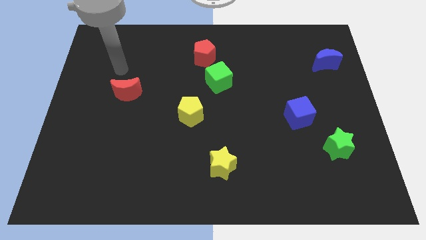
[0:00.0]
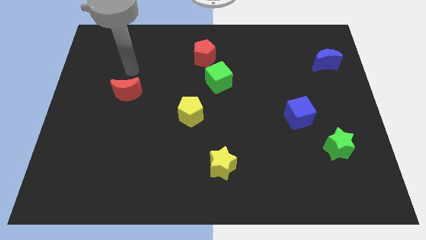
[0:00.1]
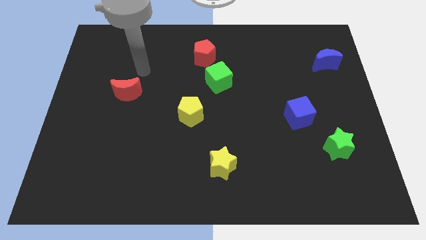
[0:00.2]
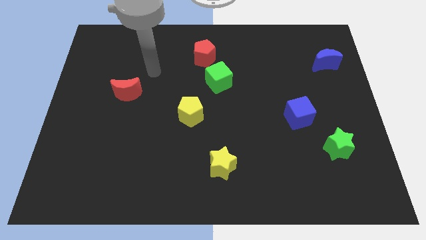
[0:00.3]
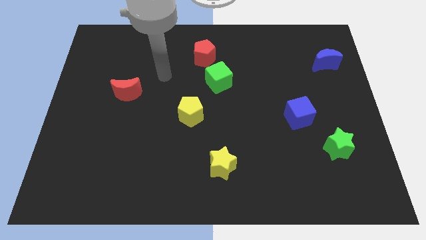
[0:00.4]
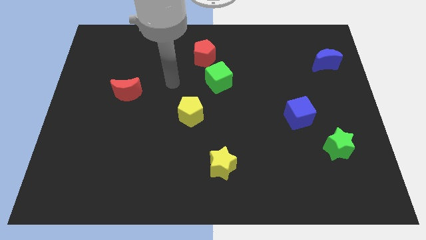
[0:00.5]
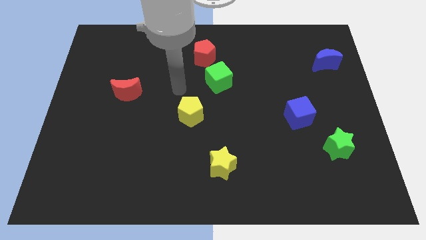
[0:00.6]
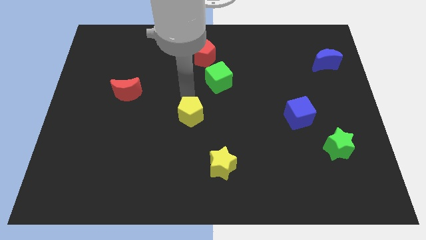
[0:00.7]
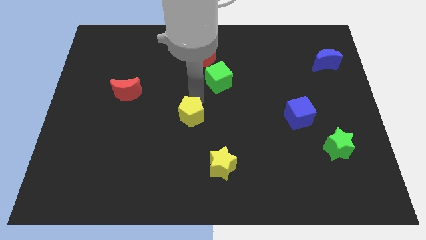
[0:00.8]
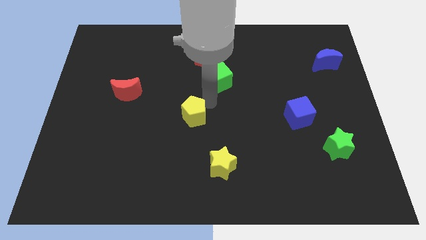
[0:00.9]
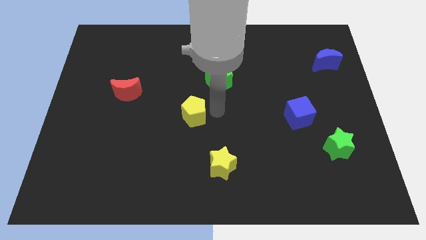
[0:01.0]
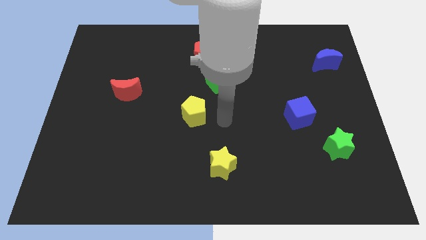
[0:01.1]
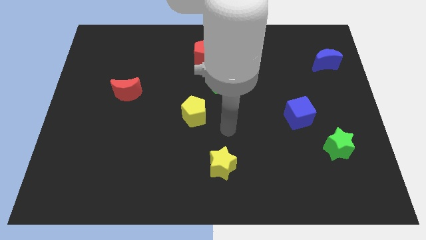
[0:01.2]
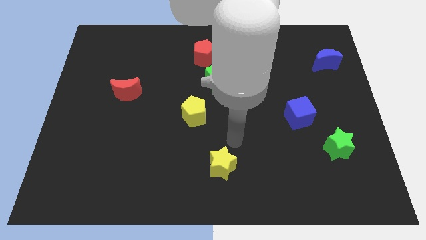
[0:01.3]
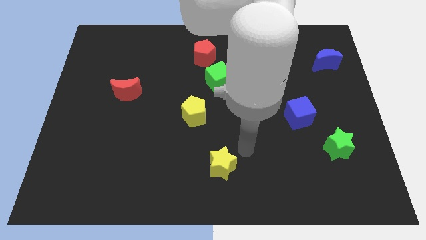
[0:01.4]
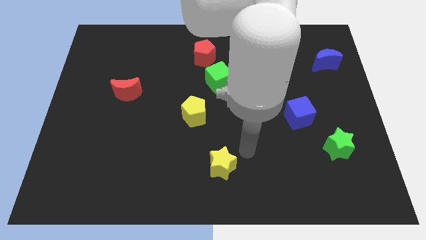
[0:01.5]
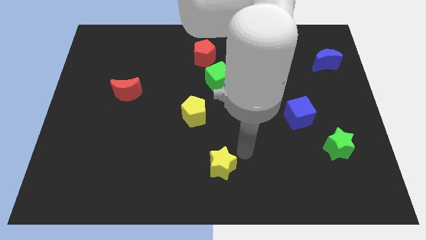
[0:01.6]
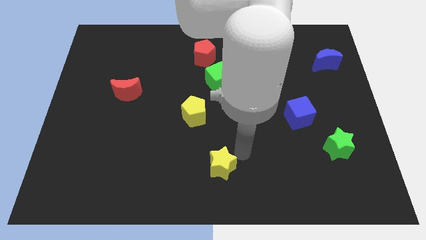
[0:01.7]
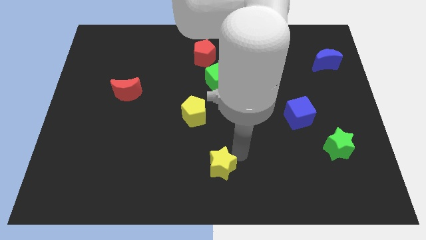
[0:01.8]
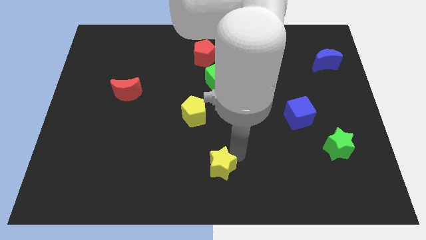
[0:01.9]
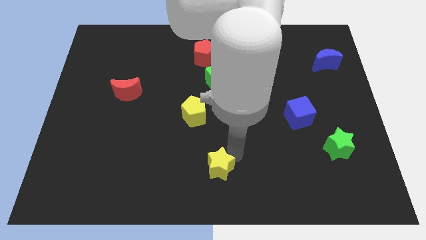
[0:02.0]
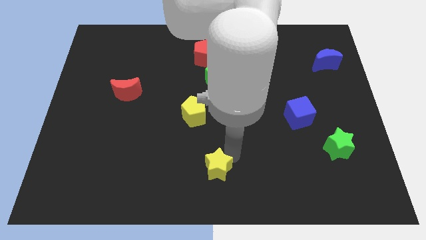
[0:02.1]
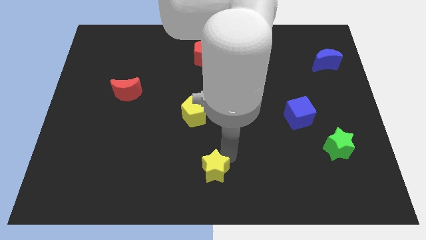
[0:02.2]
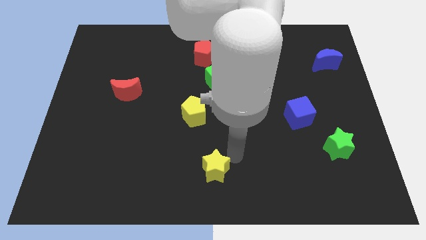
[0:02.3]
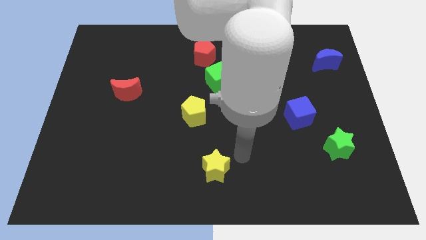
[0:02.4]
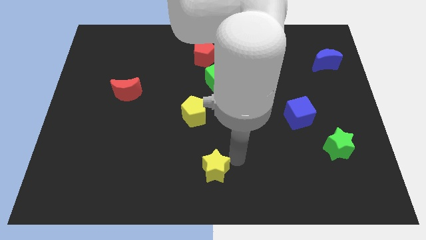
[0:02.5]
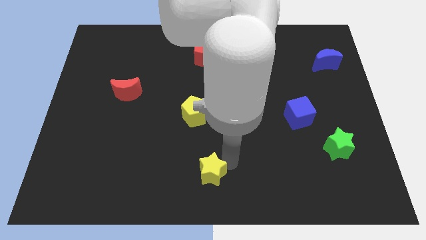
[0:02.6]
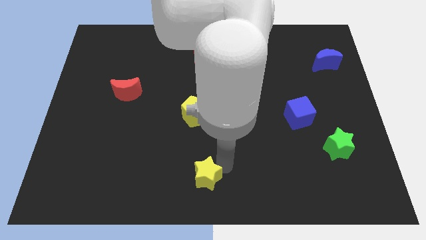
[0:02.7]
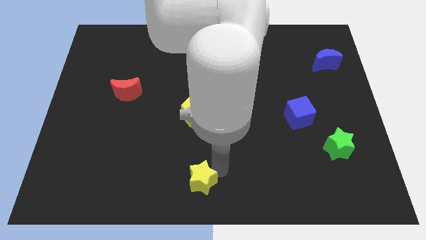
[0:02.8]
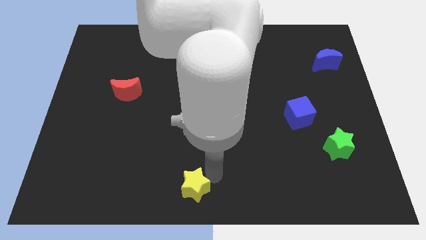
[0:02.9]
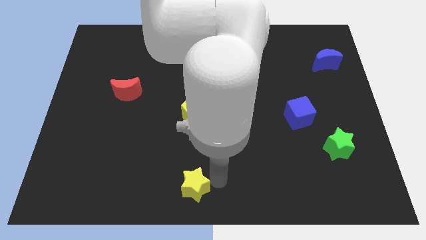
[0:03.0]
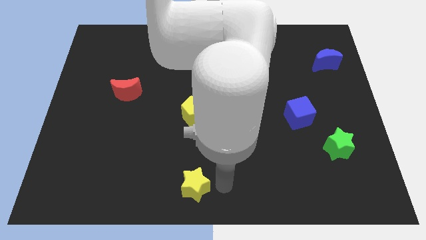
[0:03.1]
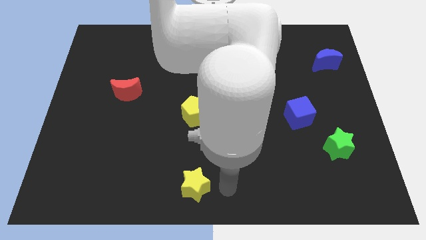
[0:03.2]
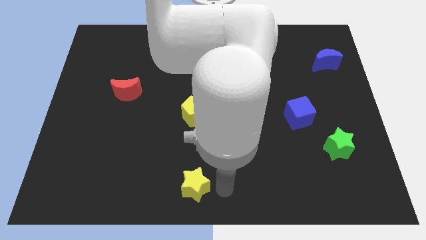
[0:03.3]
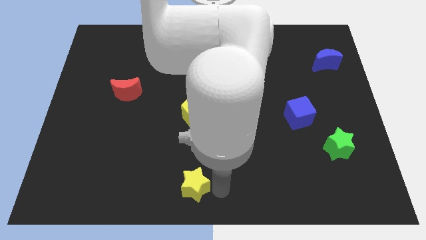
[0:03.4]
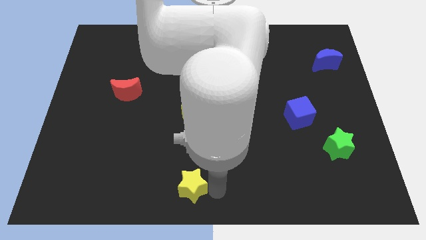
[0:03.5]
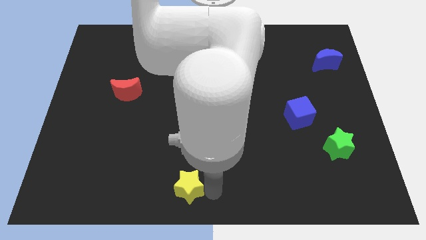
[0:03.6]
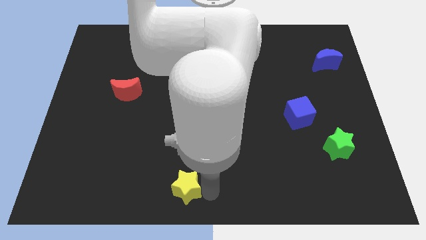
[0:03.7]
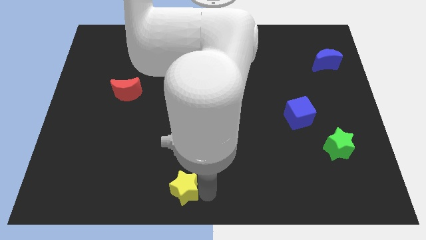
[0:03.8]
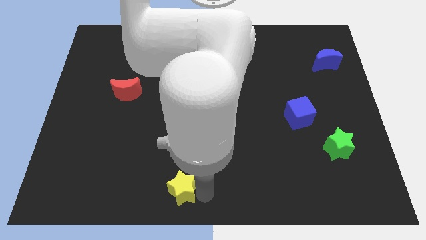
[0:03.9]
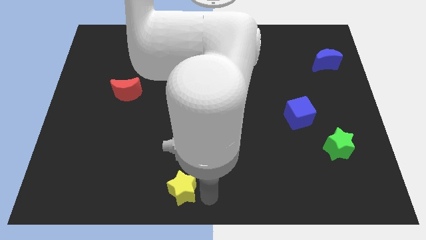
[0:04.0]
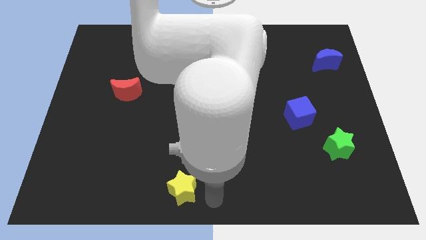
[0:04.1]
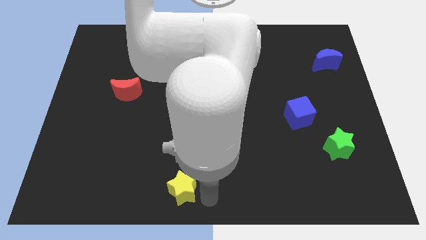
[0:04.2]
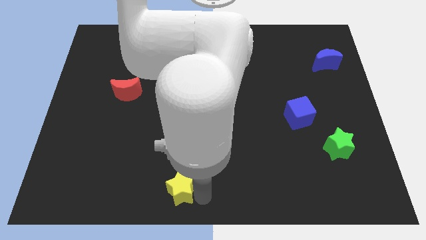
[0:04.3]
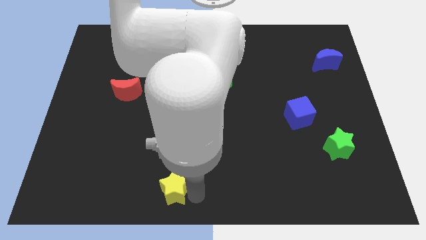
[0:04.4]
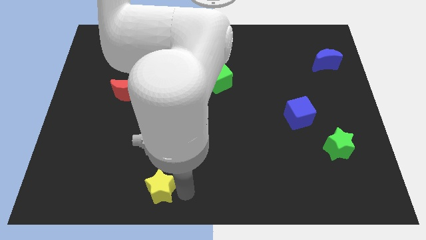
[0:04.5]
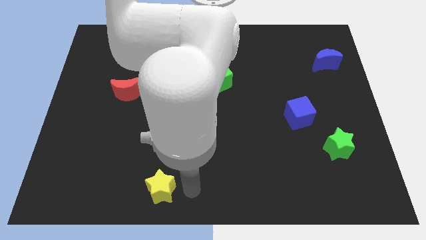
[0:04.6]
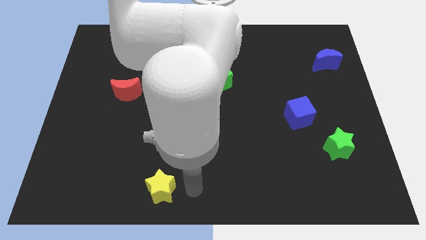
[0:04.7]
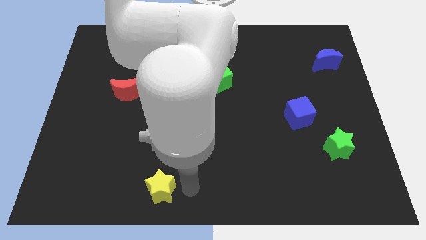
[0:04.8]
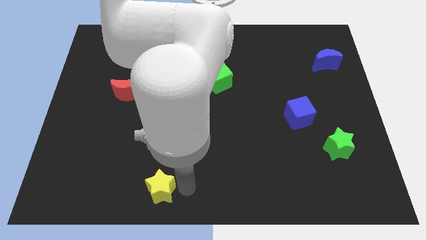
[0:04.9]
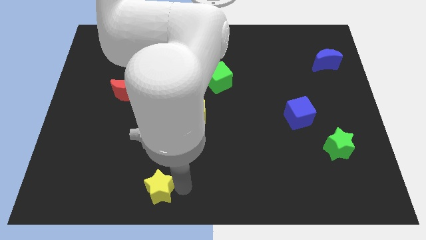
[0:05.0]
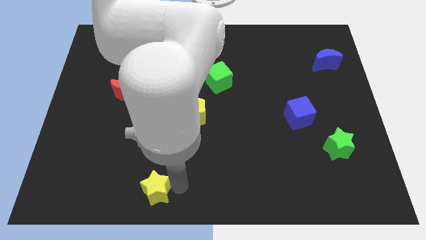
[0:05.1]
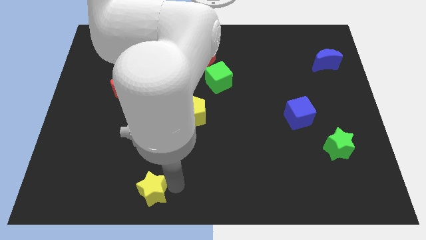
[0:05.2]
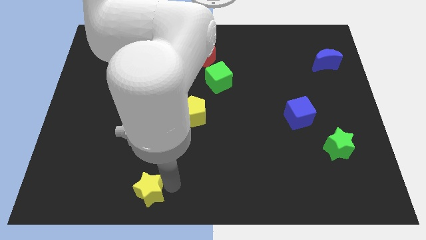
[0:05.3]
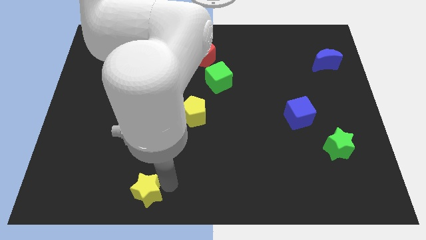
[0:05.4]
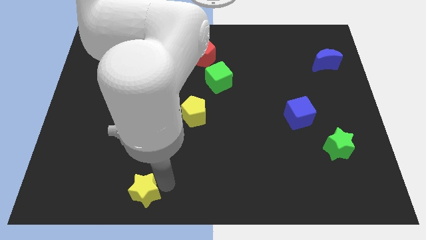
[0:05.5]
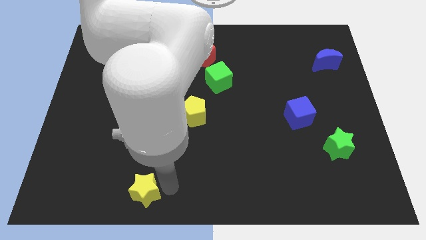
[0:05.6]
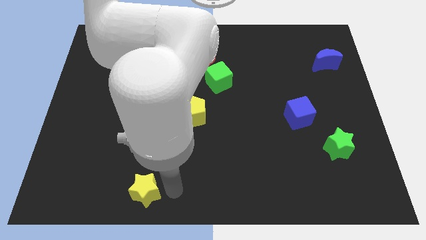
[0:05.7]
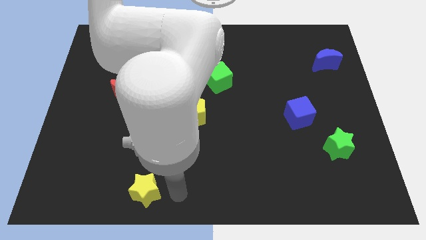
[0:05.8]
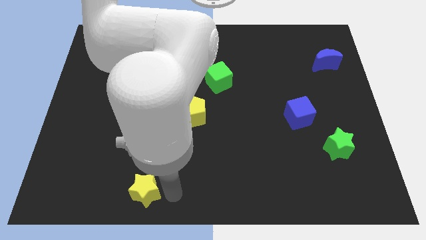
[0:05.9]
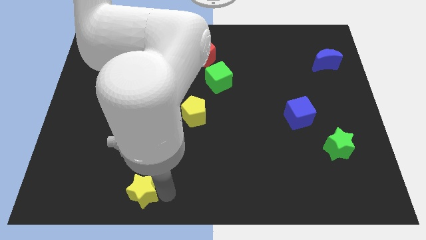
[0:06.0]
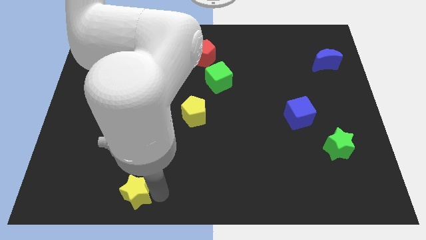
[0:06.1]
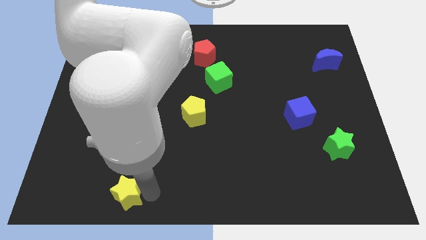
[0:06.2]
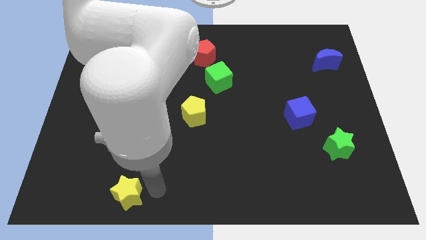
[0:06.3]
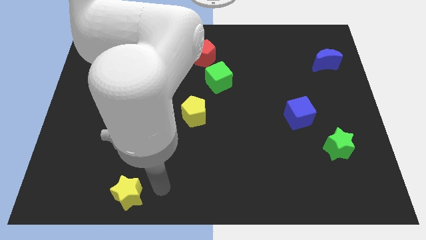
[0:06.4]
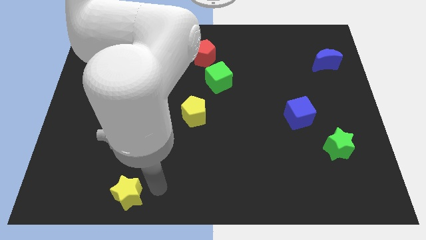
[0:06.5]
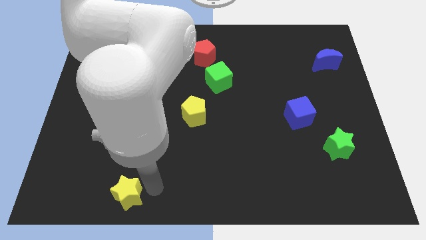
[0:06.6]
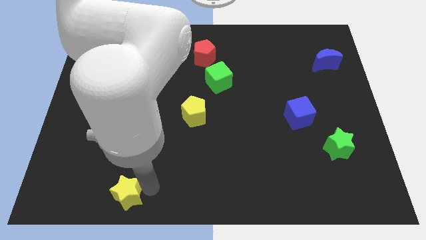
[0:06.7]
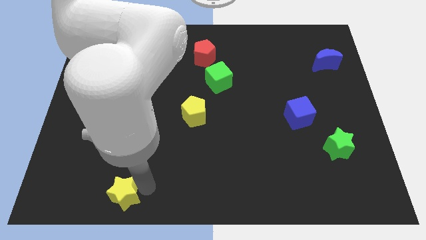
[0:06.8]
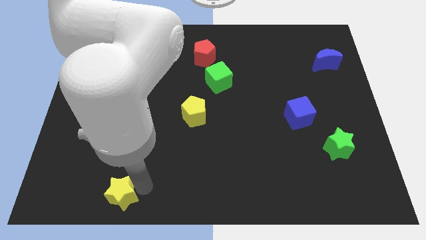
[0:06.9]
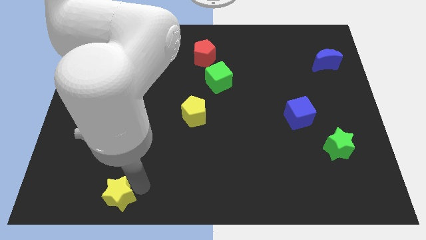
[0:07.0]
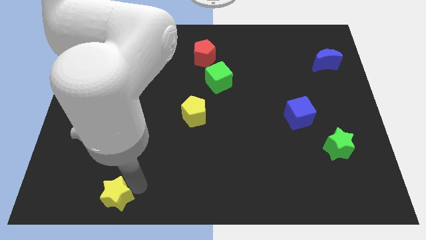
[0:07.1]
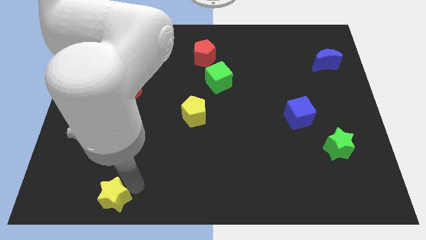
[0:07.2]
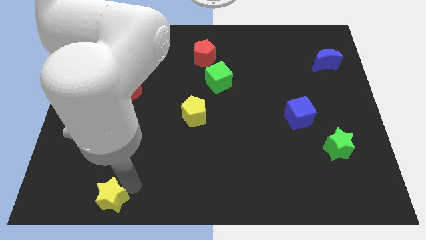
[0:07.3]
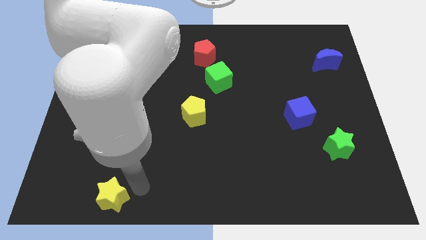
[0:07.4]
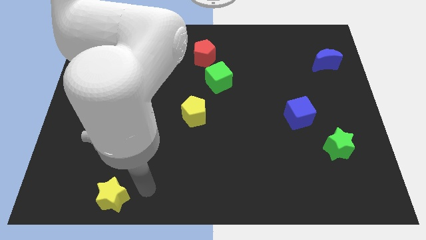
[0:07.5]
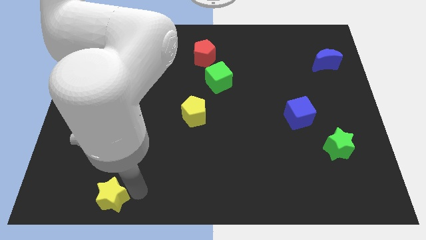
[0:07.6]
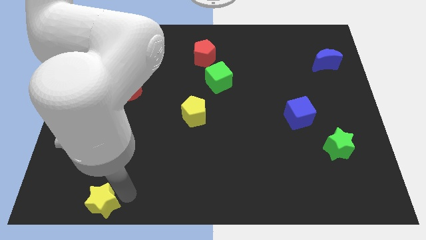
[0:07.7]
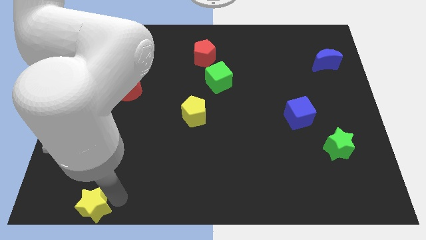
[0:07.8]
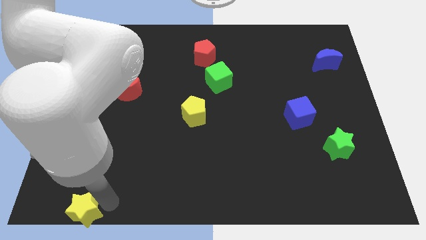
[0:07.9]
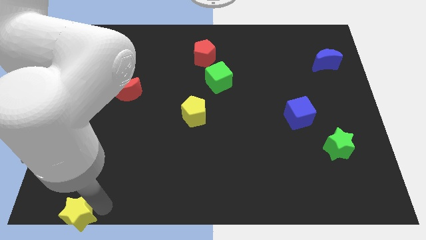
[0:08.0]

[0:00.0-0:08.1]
push the yellow star to the bottom left of the board
